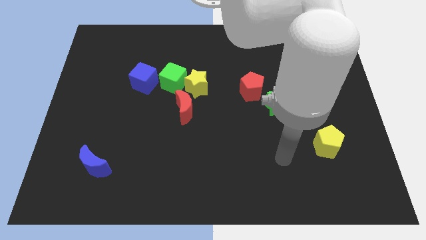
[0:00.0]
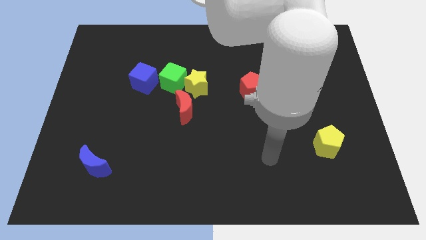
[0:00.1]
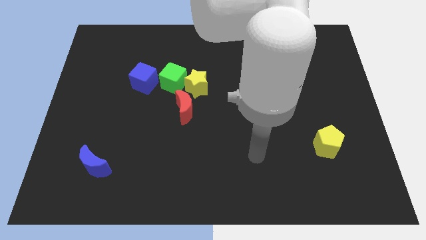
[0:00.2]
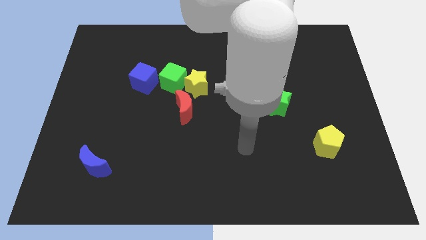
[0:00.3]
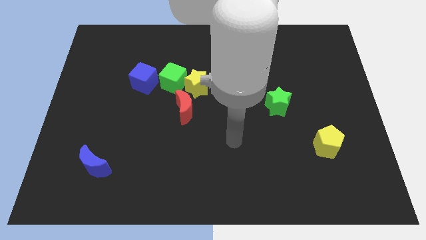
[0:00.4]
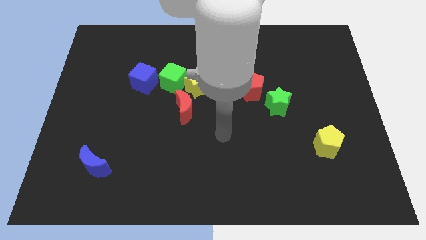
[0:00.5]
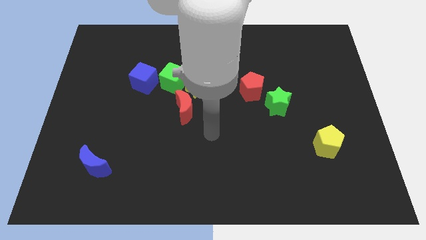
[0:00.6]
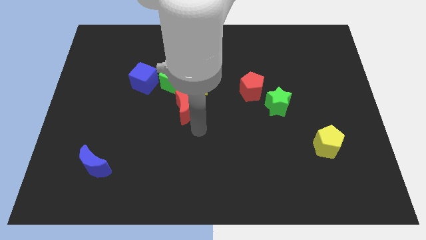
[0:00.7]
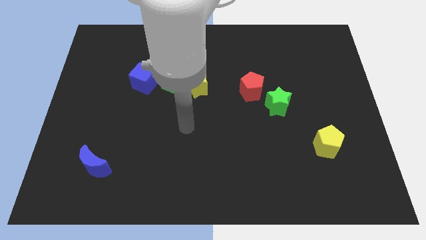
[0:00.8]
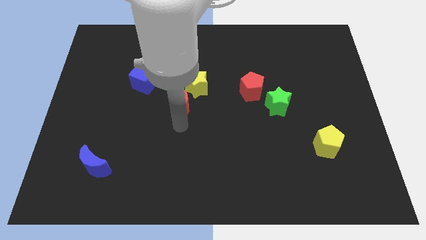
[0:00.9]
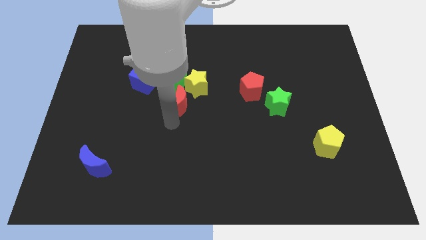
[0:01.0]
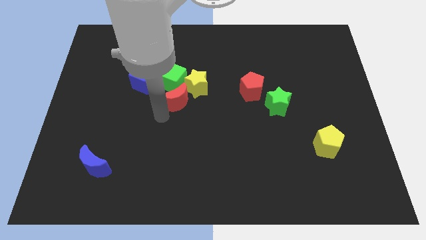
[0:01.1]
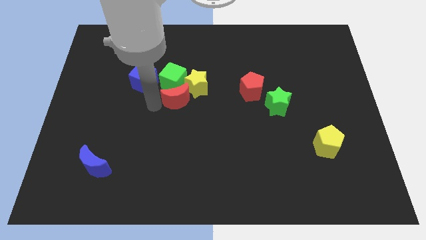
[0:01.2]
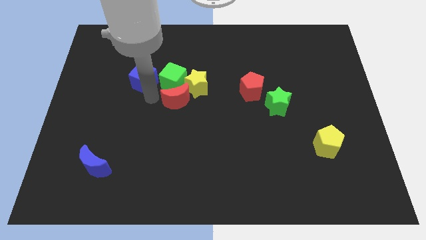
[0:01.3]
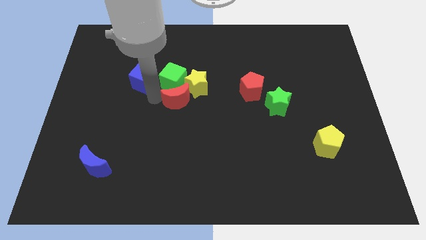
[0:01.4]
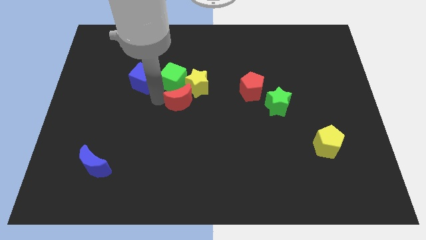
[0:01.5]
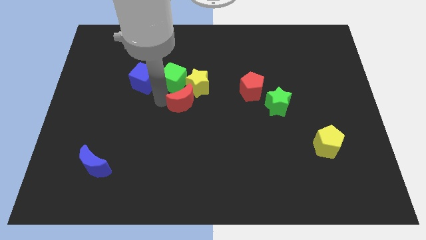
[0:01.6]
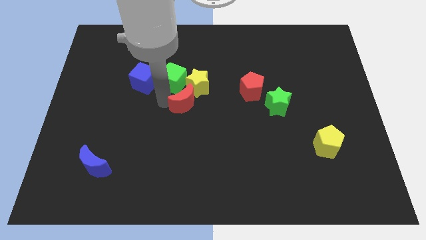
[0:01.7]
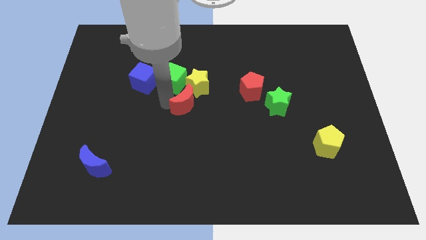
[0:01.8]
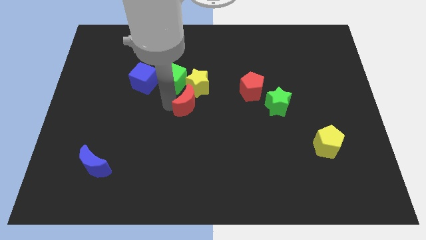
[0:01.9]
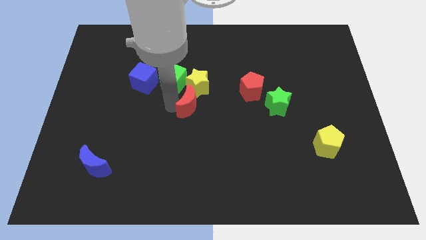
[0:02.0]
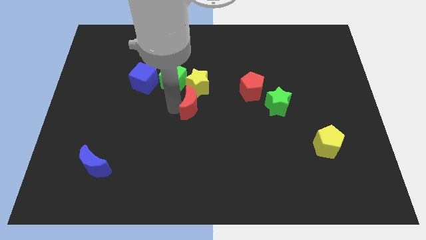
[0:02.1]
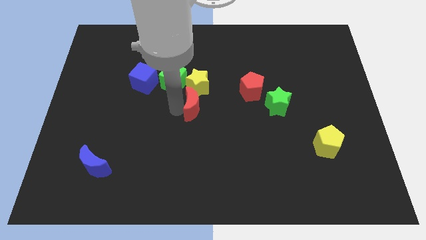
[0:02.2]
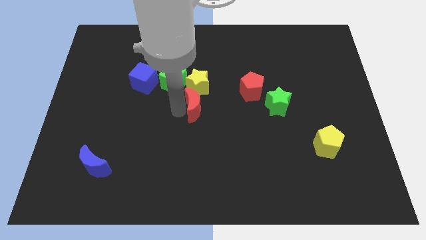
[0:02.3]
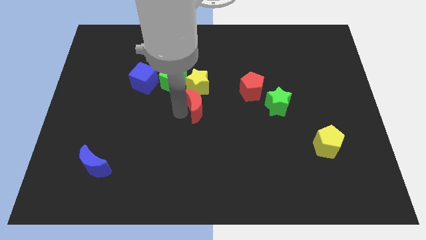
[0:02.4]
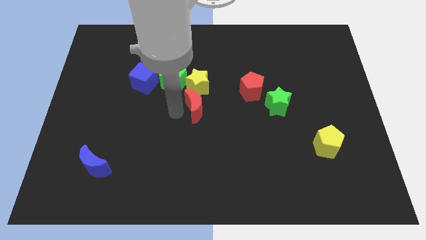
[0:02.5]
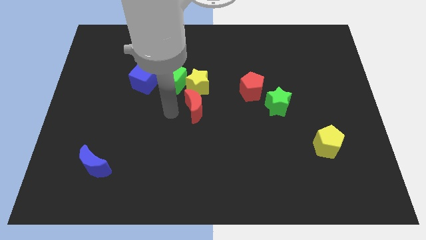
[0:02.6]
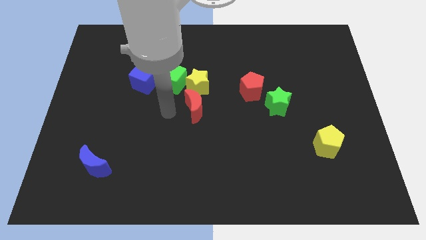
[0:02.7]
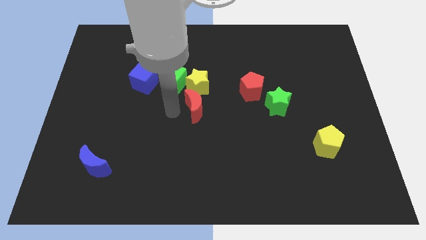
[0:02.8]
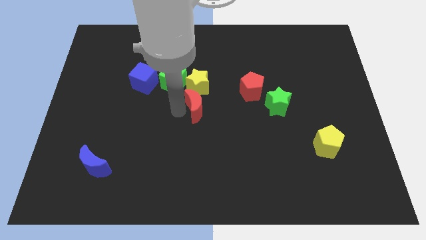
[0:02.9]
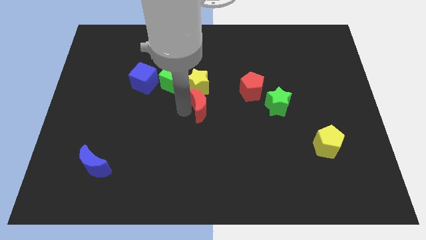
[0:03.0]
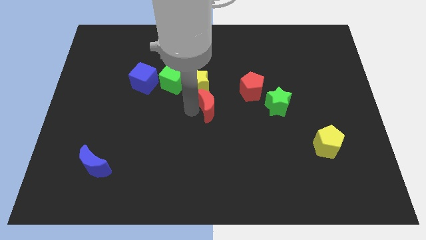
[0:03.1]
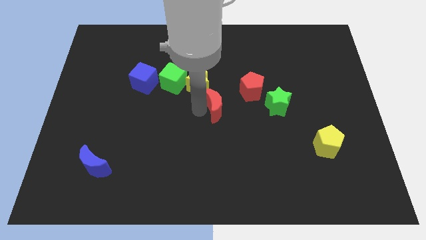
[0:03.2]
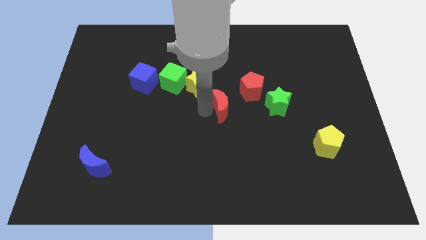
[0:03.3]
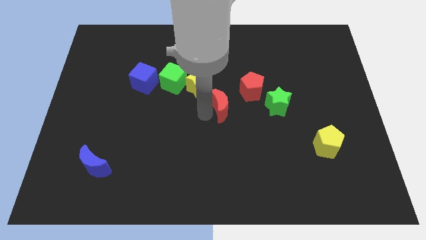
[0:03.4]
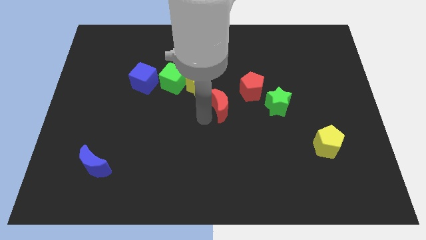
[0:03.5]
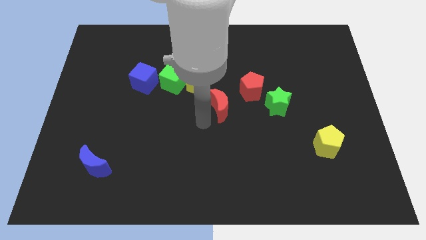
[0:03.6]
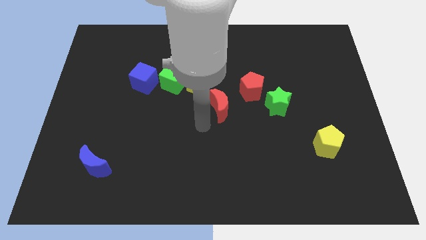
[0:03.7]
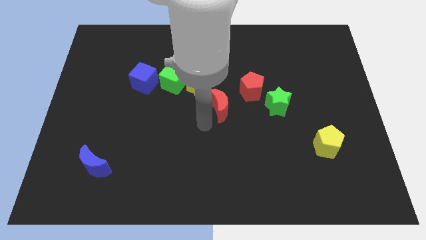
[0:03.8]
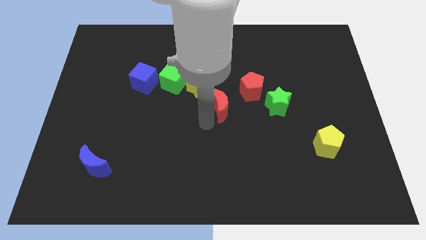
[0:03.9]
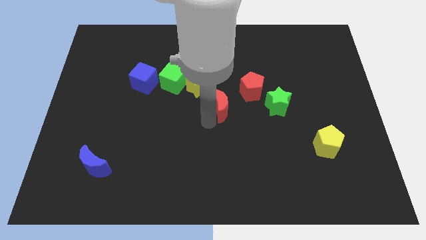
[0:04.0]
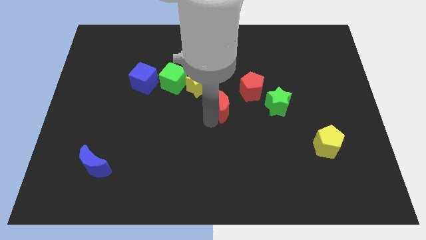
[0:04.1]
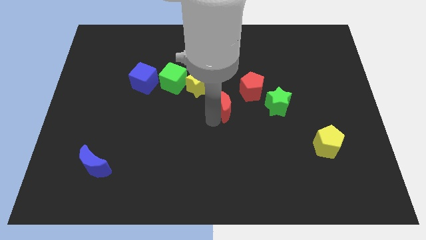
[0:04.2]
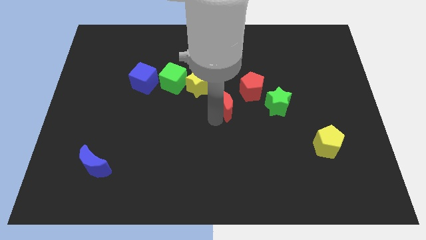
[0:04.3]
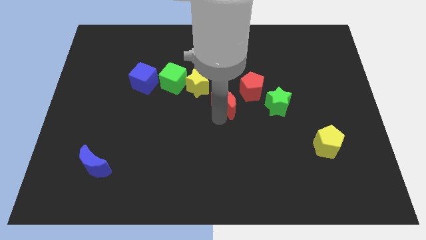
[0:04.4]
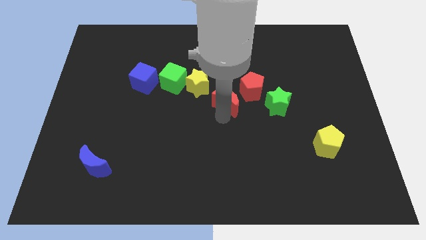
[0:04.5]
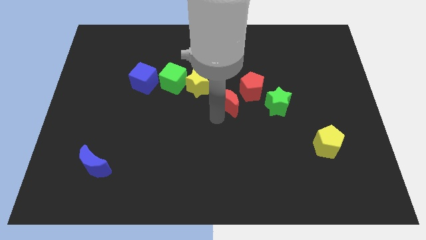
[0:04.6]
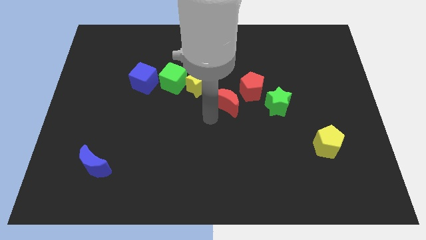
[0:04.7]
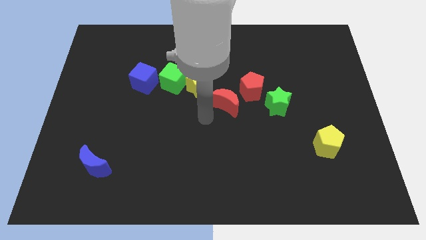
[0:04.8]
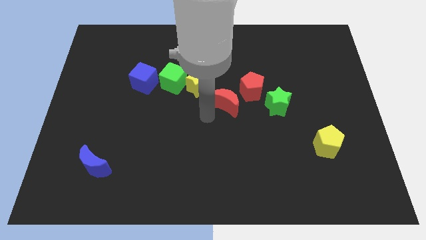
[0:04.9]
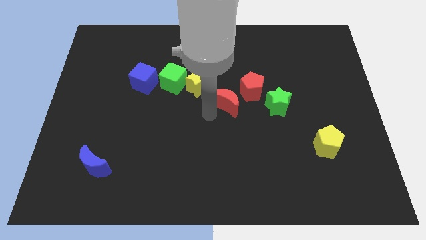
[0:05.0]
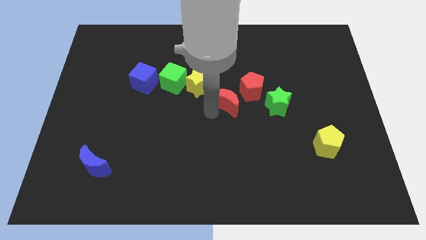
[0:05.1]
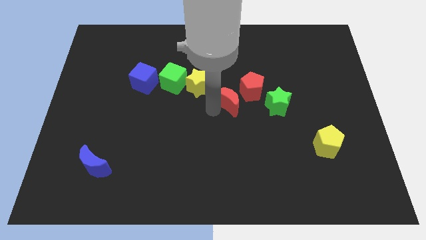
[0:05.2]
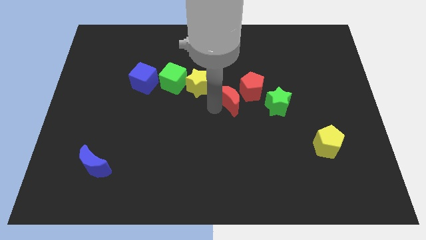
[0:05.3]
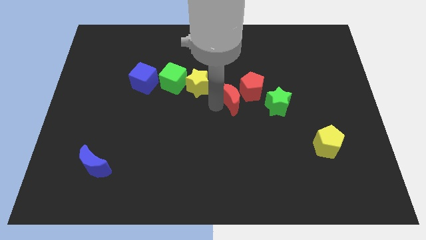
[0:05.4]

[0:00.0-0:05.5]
slide the red moon towards the red pentagon

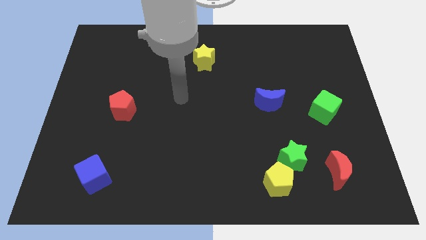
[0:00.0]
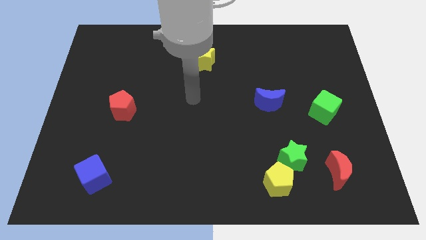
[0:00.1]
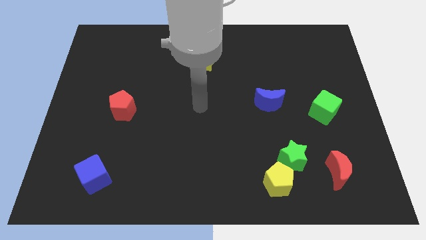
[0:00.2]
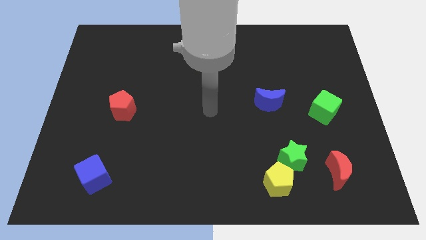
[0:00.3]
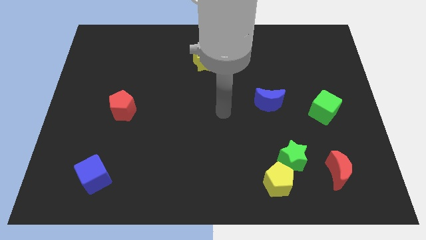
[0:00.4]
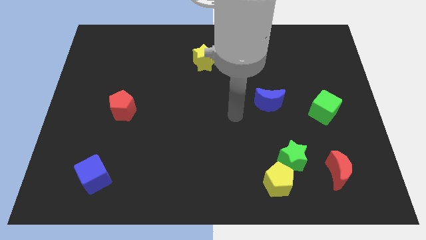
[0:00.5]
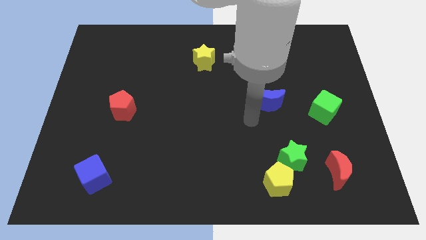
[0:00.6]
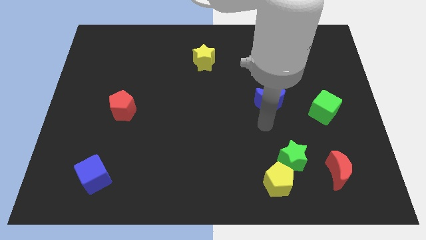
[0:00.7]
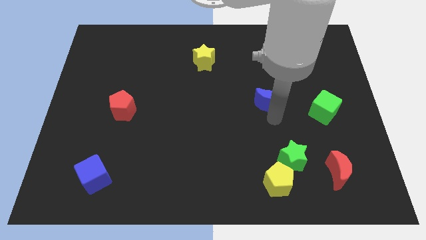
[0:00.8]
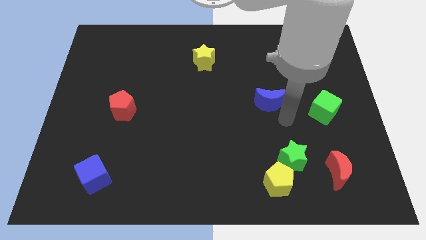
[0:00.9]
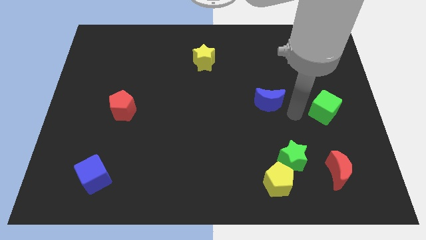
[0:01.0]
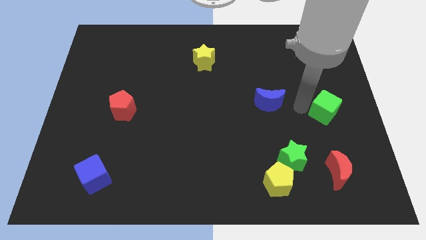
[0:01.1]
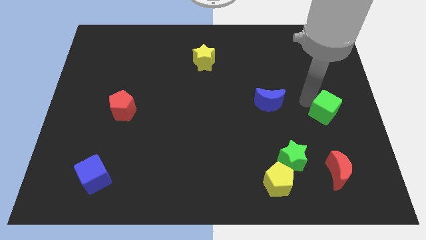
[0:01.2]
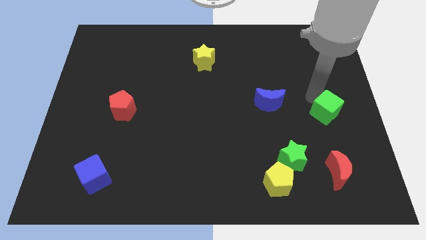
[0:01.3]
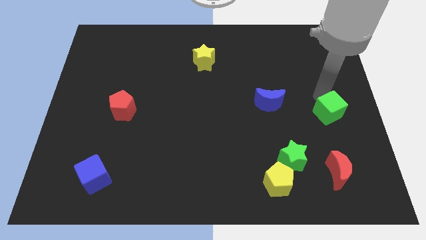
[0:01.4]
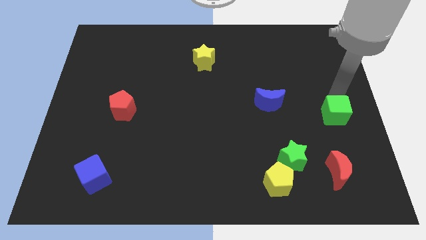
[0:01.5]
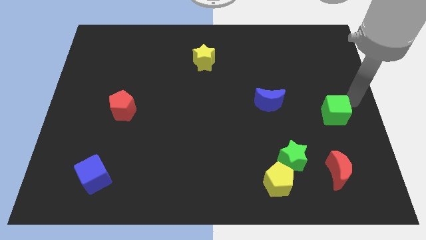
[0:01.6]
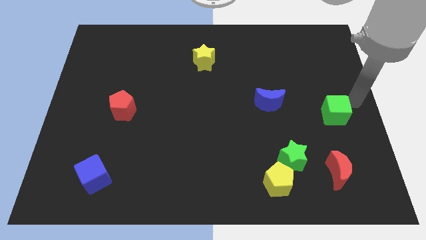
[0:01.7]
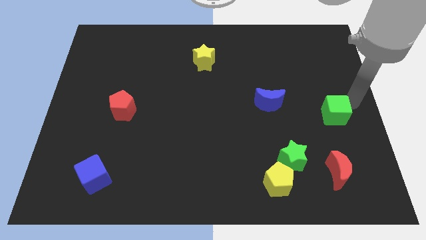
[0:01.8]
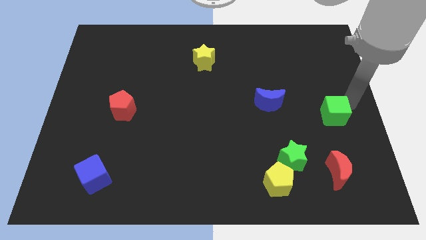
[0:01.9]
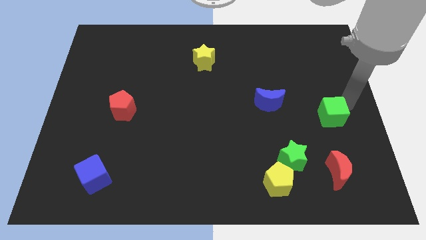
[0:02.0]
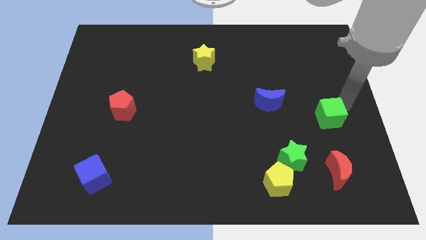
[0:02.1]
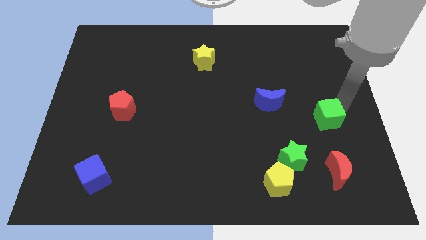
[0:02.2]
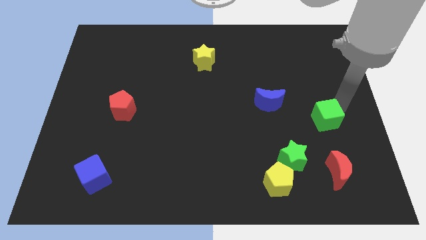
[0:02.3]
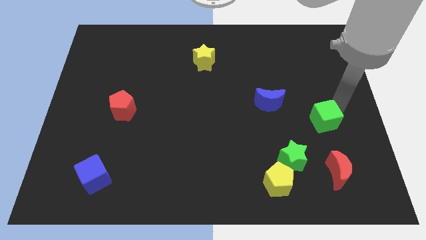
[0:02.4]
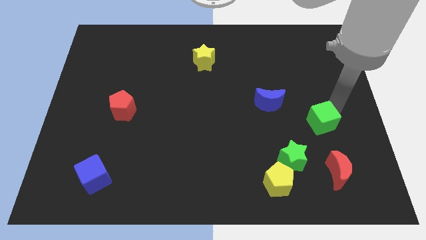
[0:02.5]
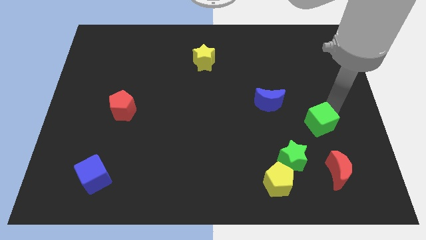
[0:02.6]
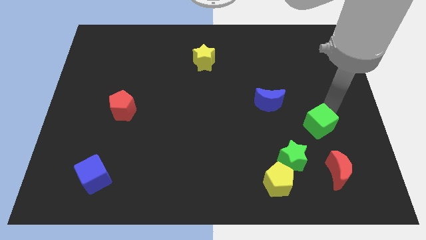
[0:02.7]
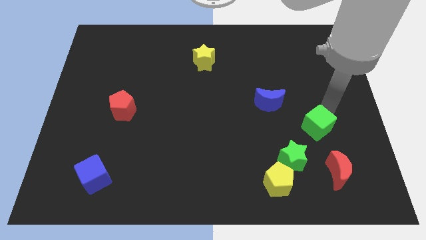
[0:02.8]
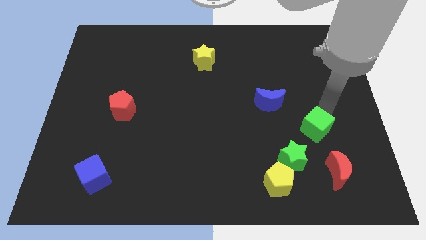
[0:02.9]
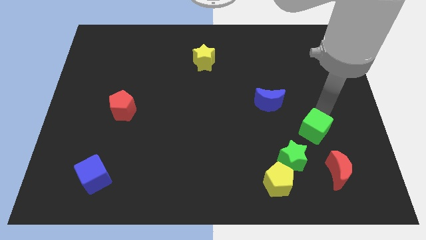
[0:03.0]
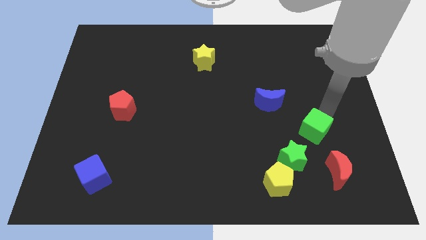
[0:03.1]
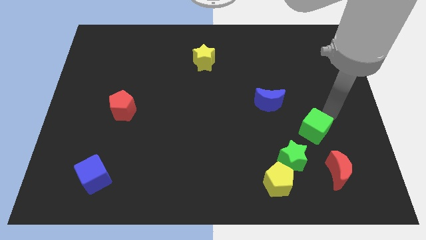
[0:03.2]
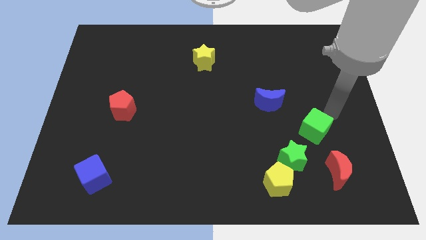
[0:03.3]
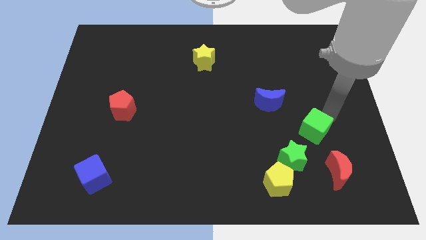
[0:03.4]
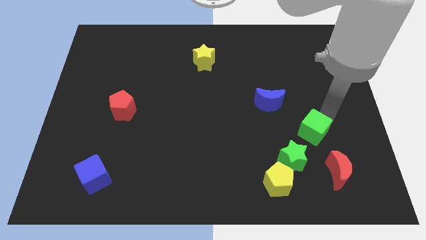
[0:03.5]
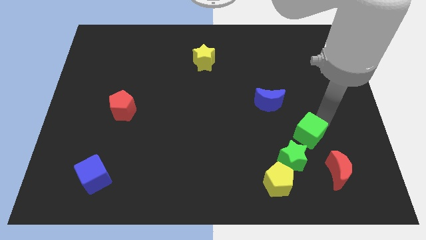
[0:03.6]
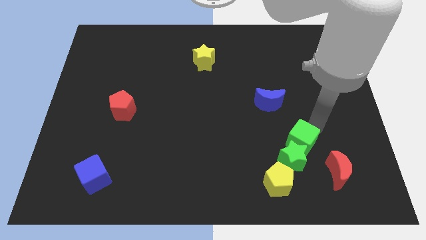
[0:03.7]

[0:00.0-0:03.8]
push the green cube to the green star
